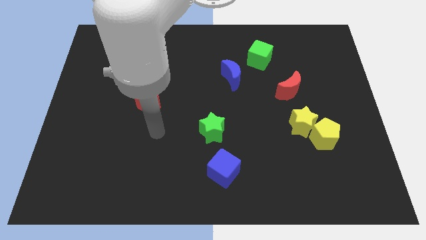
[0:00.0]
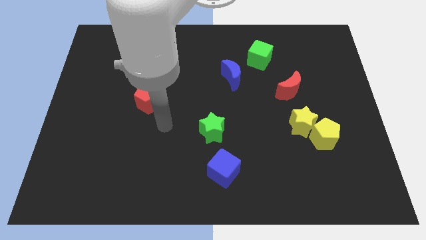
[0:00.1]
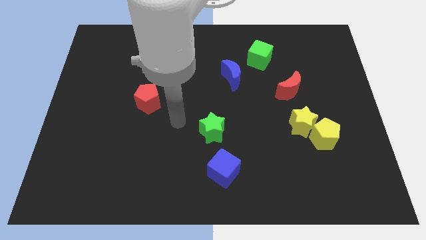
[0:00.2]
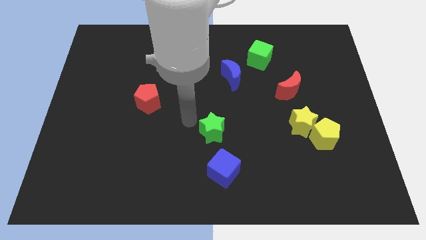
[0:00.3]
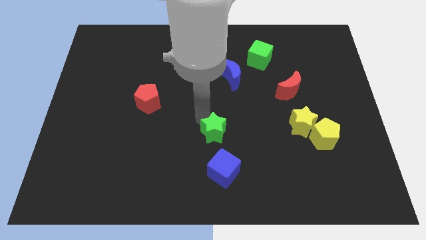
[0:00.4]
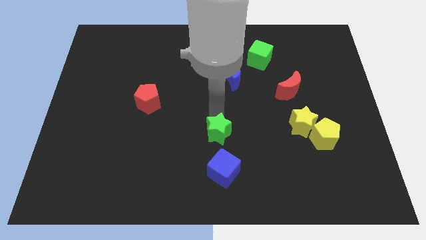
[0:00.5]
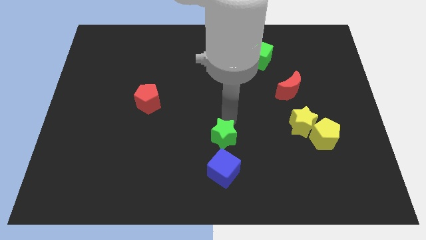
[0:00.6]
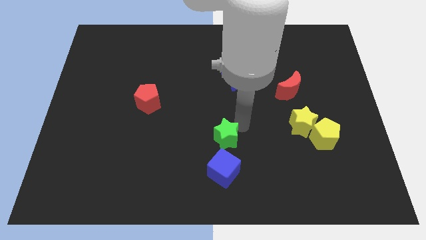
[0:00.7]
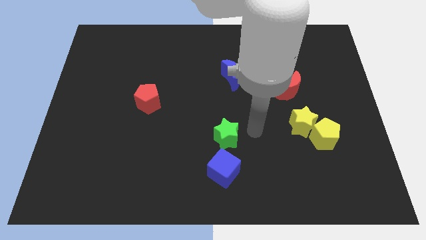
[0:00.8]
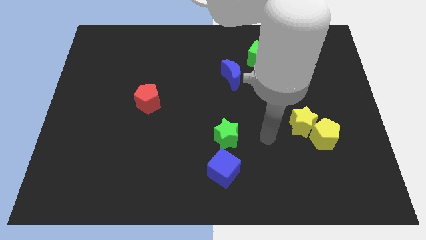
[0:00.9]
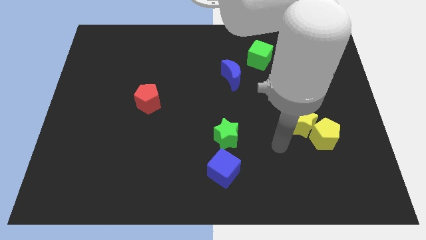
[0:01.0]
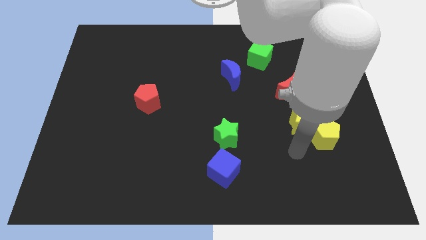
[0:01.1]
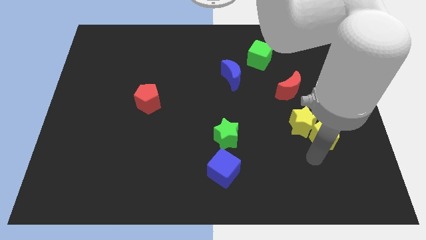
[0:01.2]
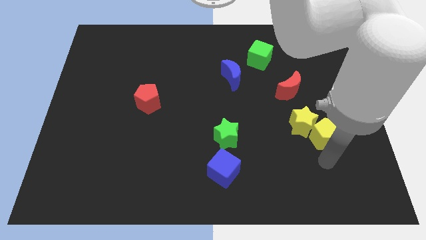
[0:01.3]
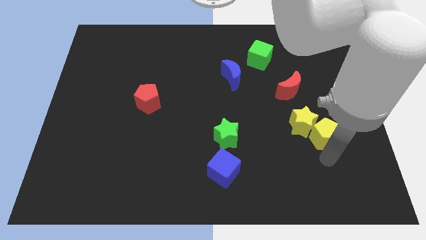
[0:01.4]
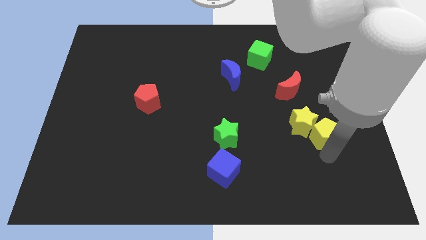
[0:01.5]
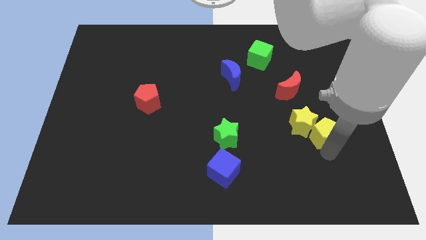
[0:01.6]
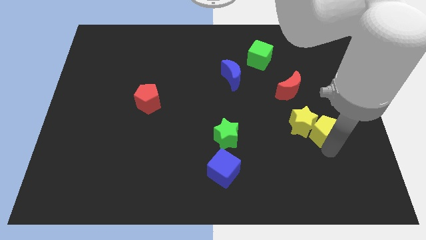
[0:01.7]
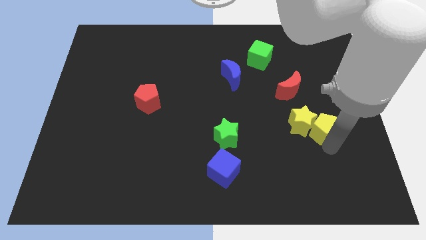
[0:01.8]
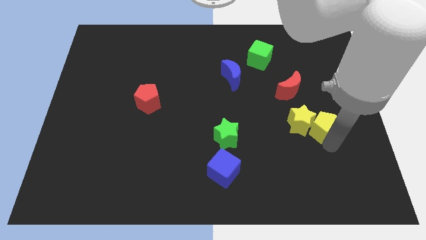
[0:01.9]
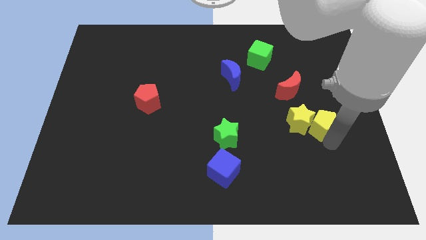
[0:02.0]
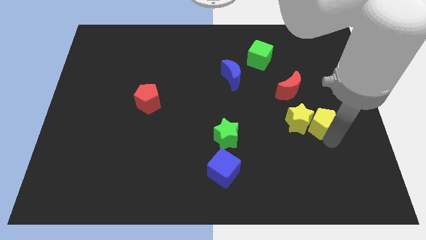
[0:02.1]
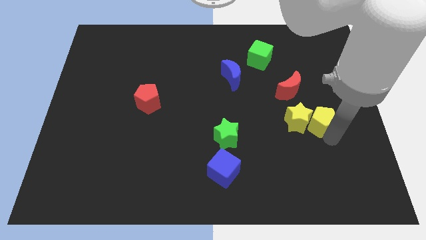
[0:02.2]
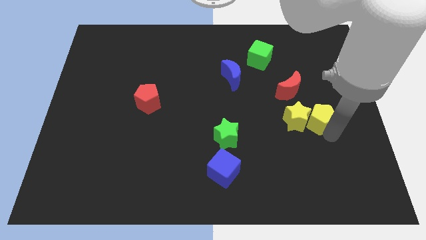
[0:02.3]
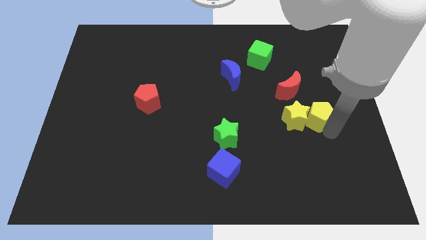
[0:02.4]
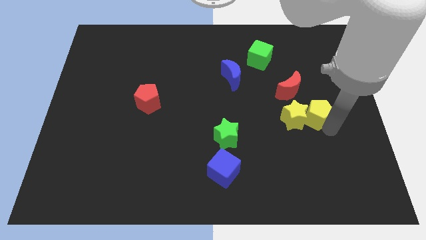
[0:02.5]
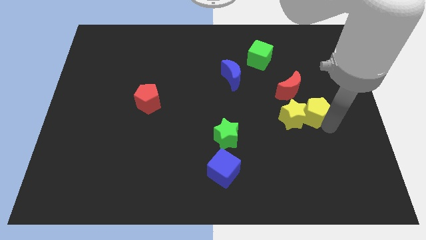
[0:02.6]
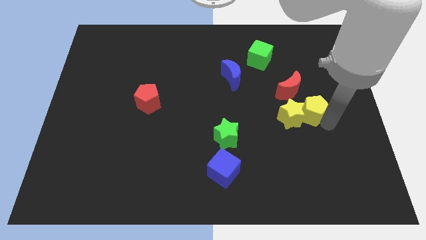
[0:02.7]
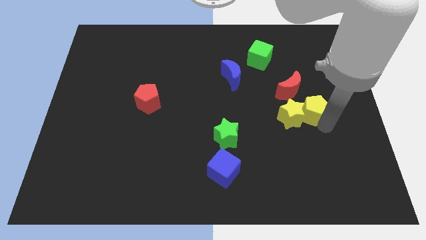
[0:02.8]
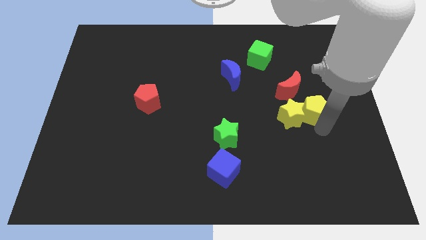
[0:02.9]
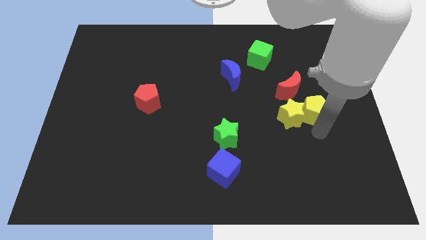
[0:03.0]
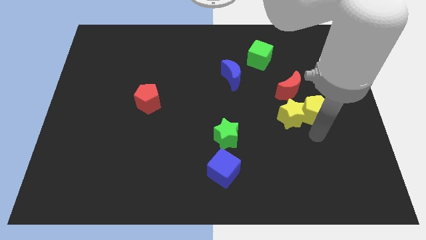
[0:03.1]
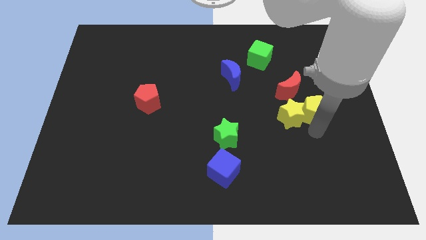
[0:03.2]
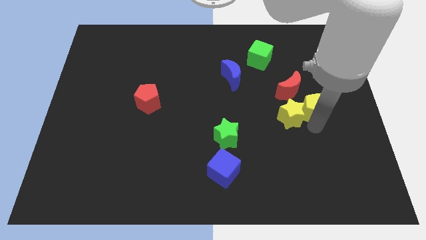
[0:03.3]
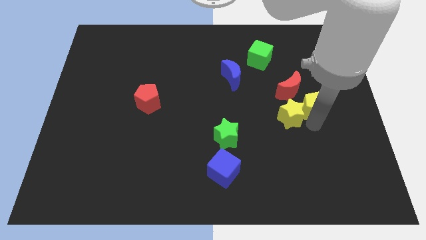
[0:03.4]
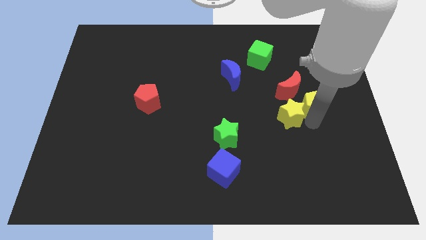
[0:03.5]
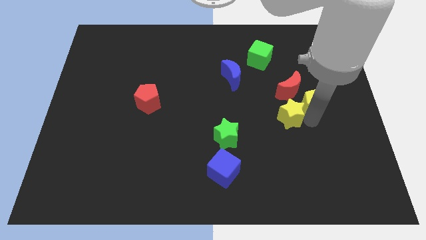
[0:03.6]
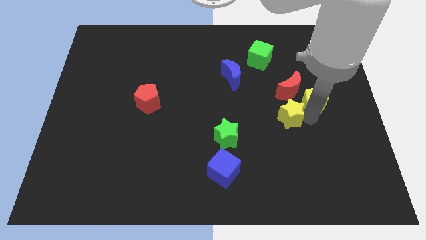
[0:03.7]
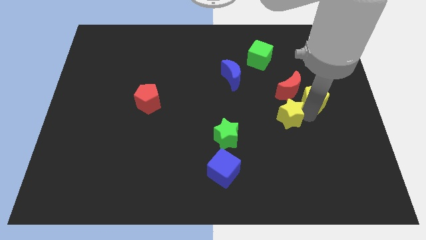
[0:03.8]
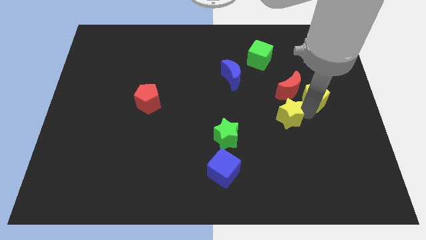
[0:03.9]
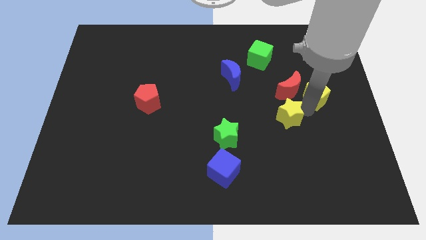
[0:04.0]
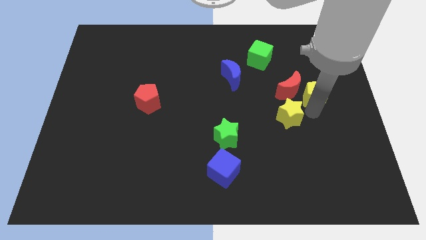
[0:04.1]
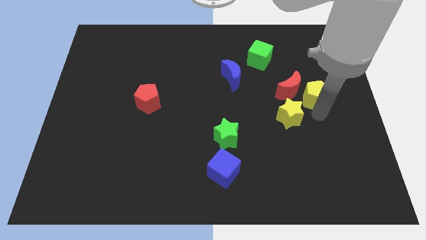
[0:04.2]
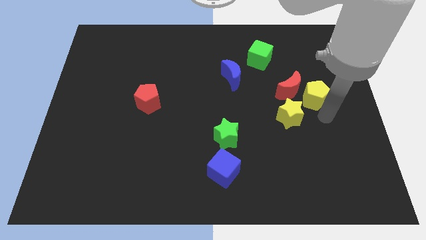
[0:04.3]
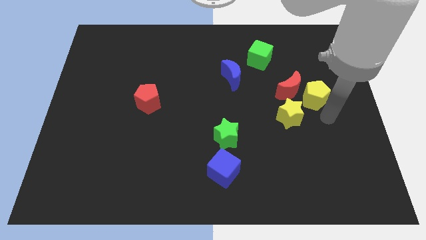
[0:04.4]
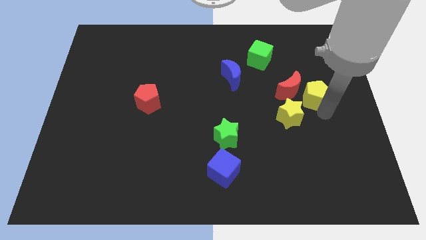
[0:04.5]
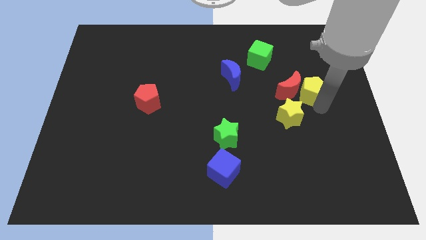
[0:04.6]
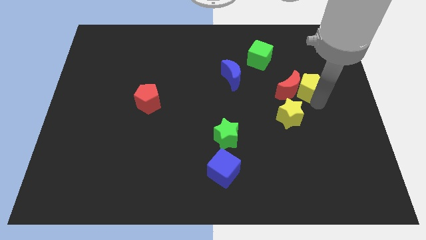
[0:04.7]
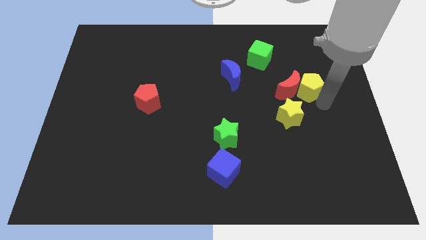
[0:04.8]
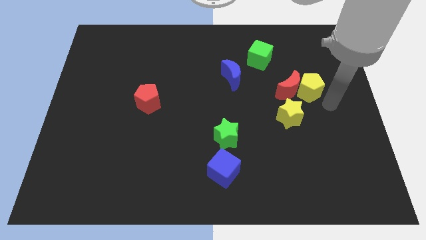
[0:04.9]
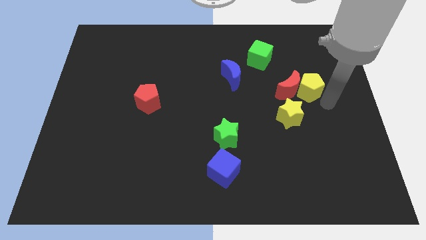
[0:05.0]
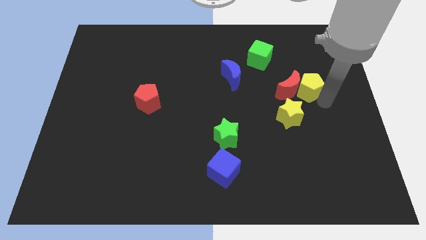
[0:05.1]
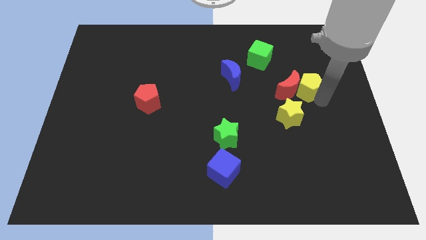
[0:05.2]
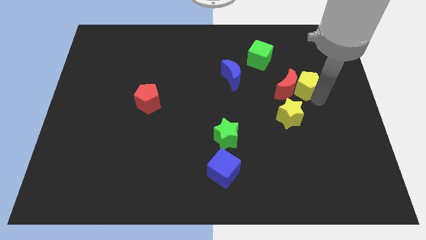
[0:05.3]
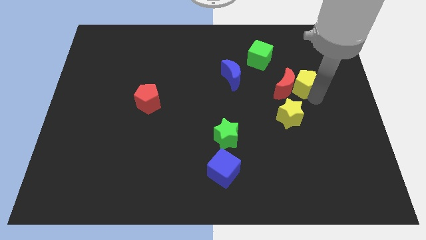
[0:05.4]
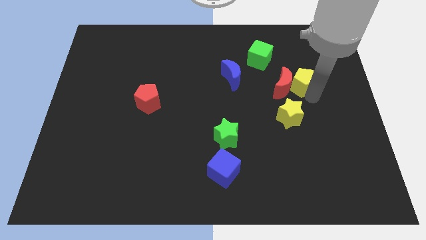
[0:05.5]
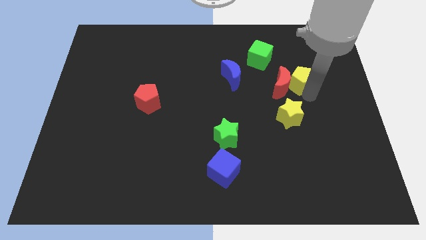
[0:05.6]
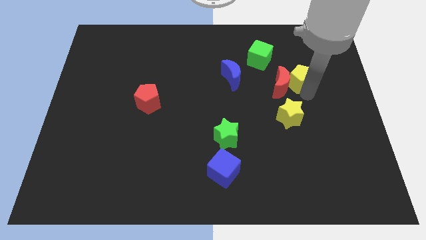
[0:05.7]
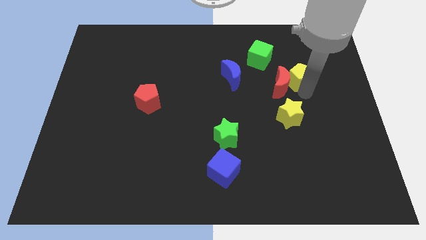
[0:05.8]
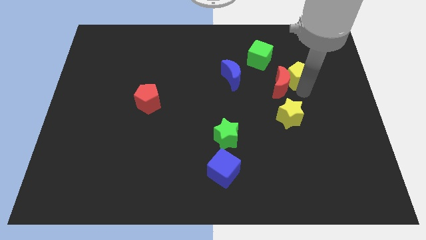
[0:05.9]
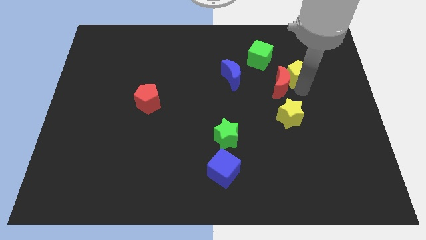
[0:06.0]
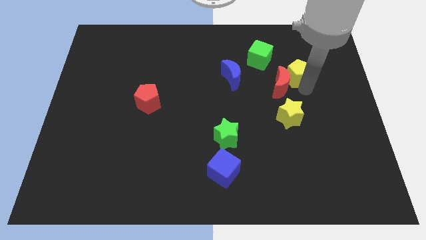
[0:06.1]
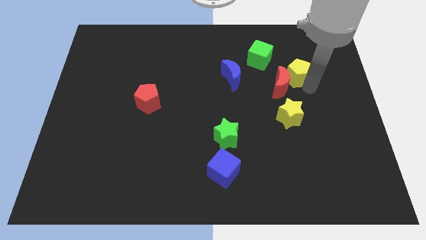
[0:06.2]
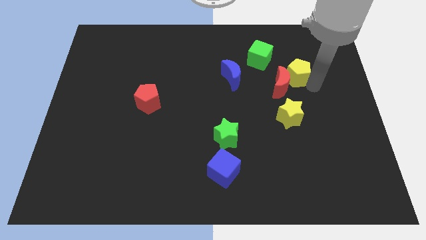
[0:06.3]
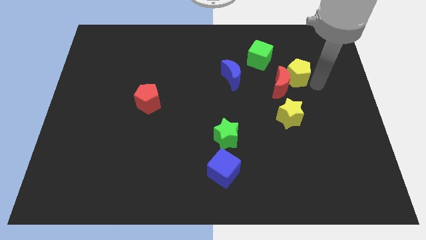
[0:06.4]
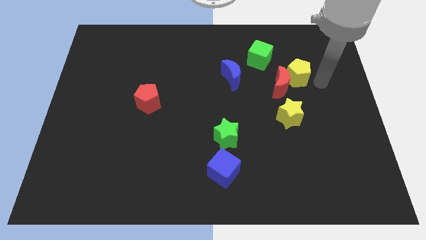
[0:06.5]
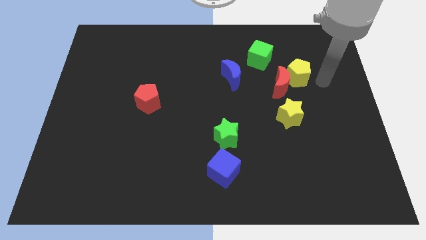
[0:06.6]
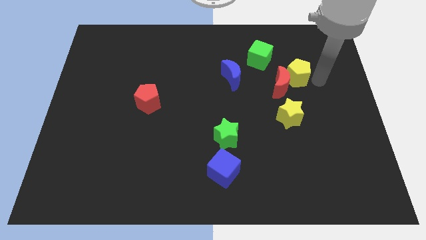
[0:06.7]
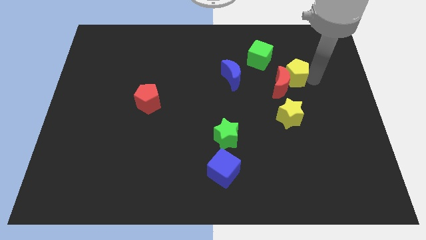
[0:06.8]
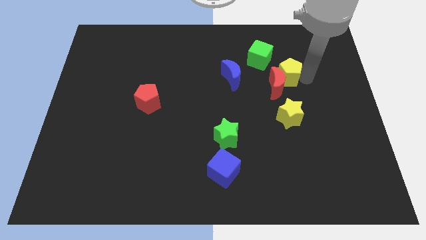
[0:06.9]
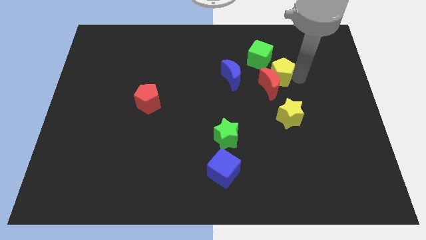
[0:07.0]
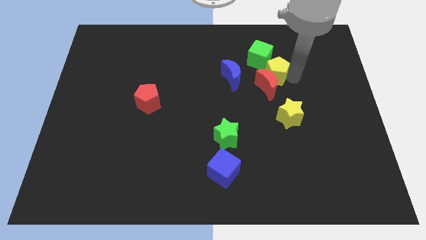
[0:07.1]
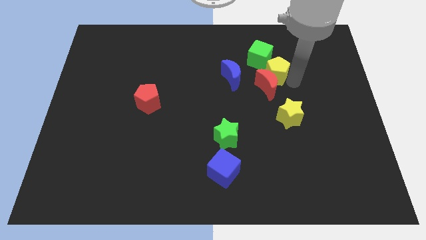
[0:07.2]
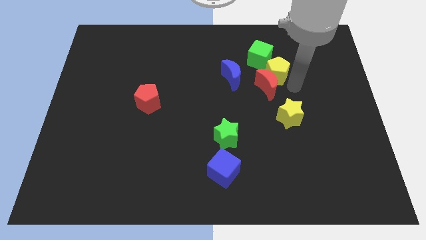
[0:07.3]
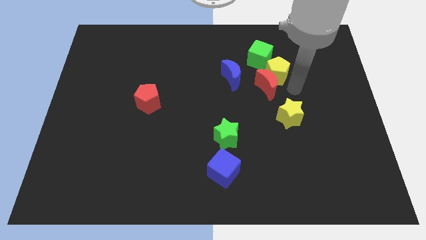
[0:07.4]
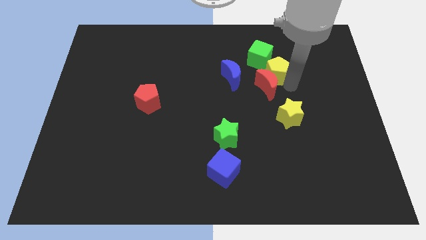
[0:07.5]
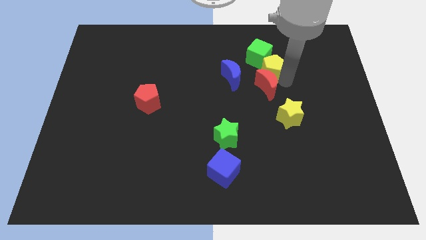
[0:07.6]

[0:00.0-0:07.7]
put the yellow pentagon next to the green cube
